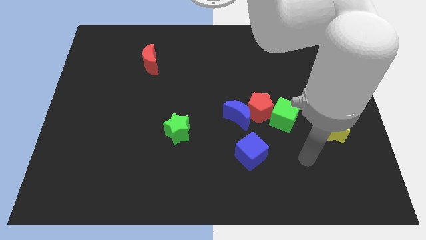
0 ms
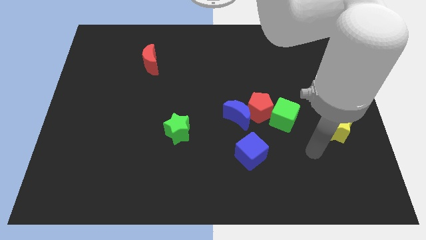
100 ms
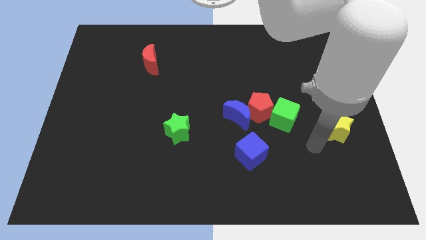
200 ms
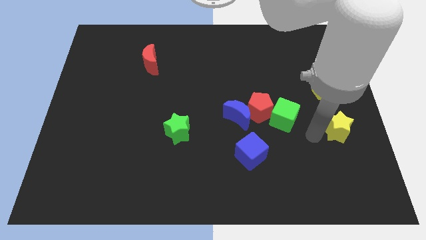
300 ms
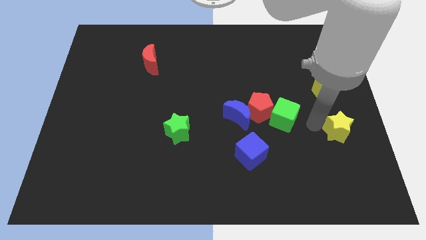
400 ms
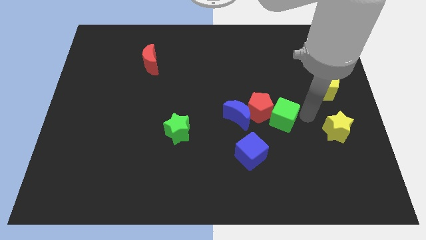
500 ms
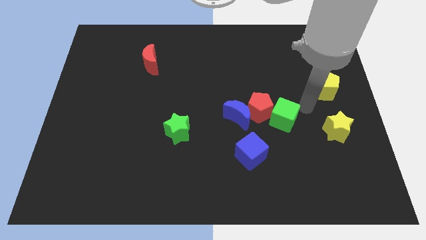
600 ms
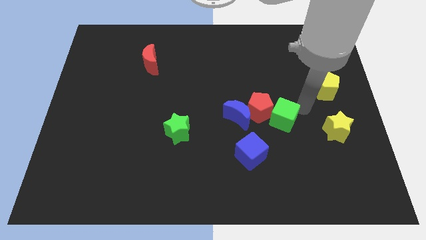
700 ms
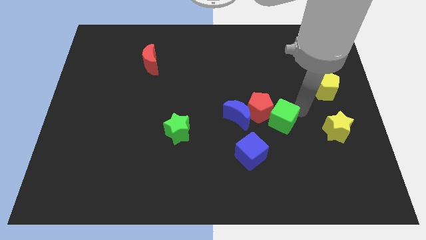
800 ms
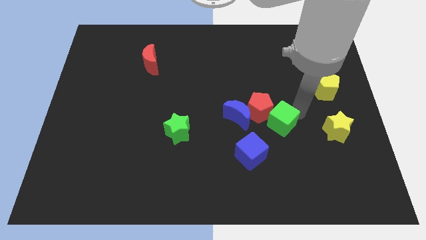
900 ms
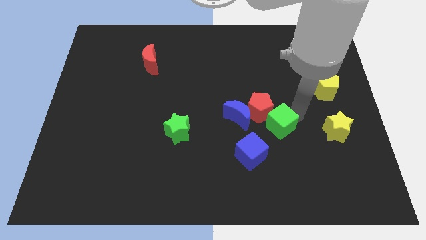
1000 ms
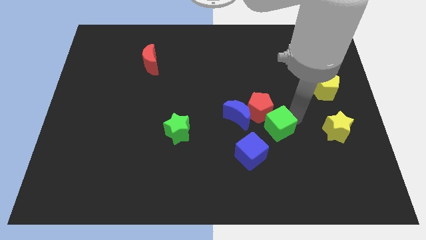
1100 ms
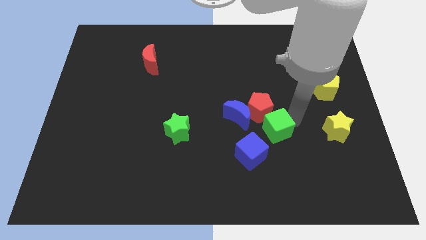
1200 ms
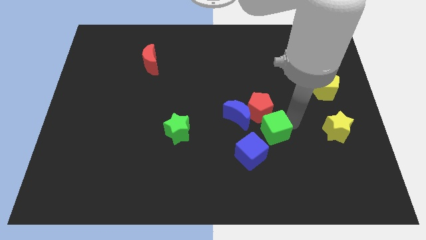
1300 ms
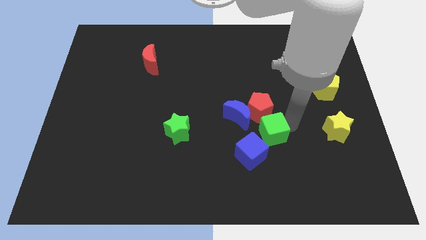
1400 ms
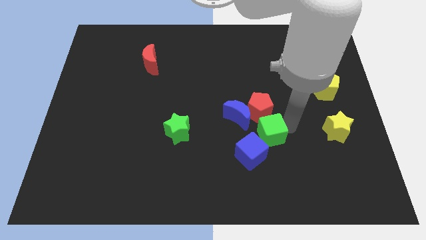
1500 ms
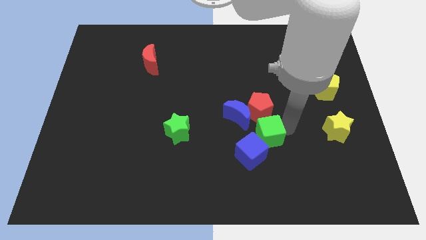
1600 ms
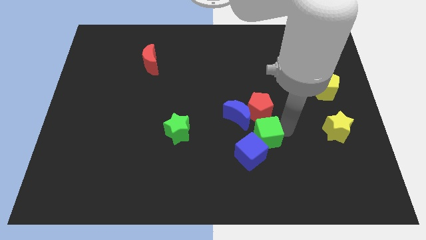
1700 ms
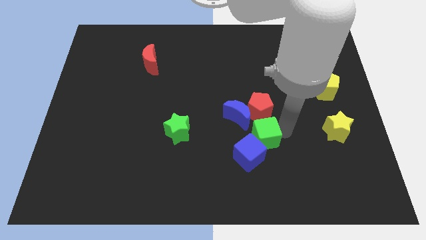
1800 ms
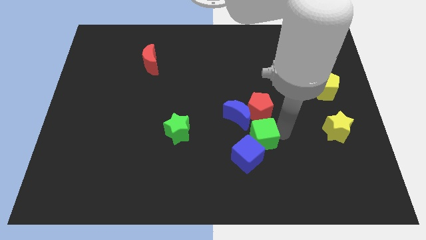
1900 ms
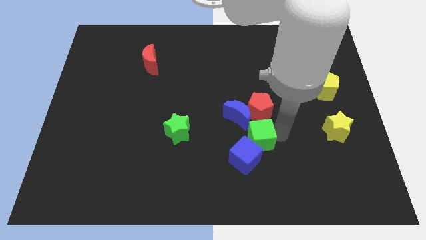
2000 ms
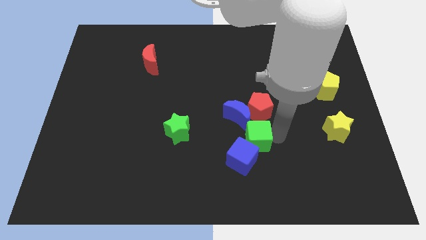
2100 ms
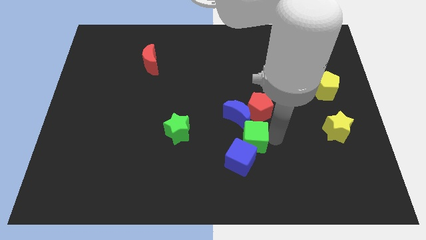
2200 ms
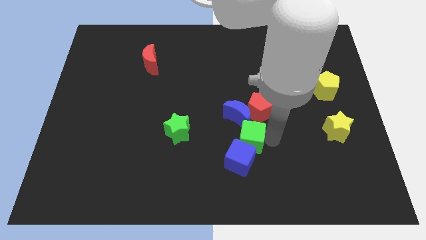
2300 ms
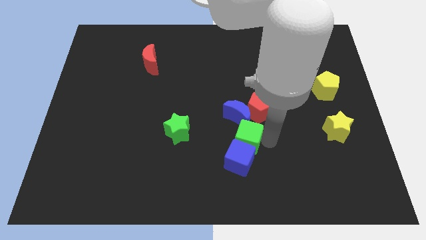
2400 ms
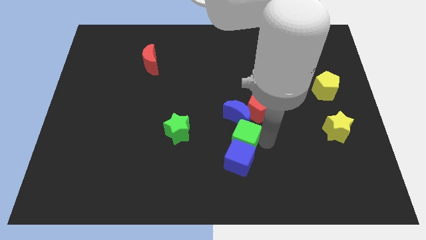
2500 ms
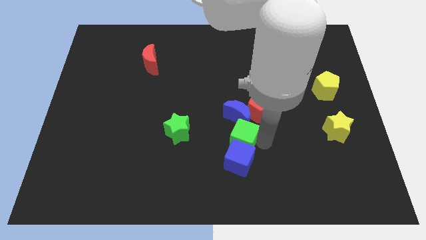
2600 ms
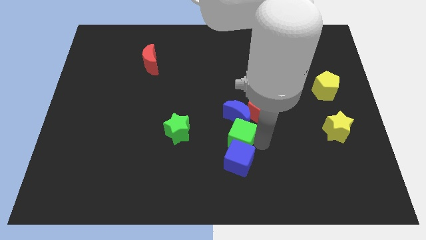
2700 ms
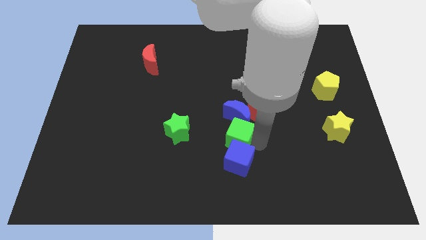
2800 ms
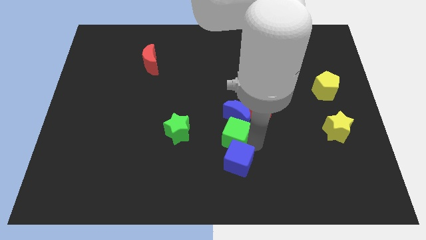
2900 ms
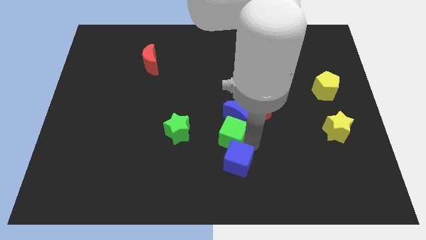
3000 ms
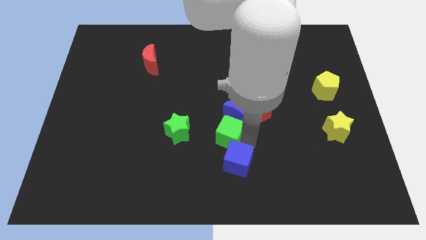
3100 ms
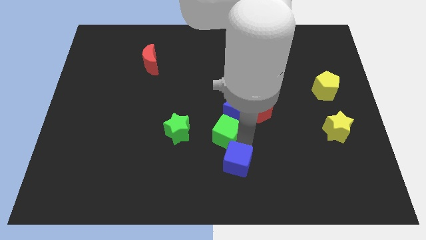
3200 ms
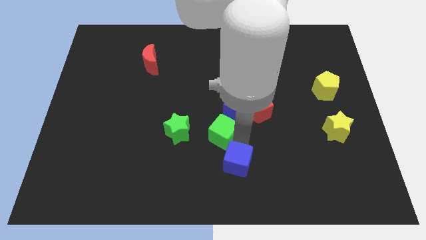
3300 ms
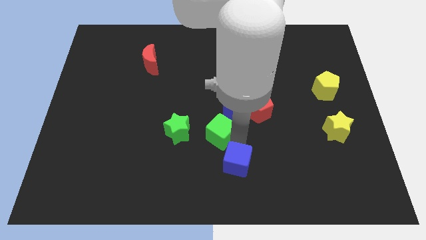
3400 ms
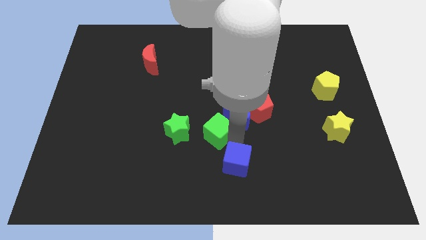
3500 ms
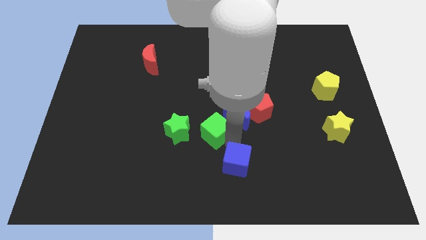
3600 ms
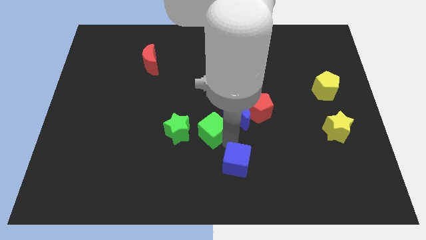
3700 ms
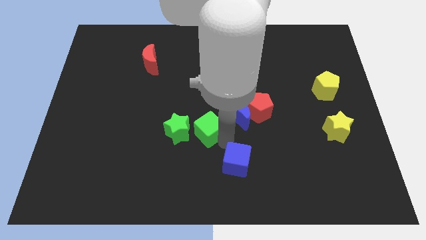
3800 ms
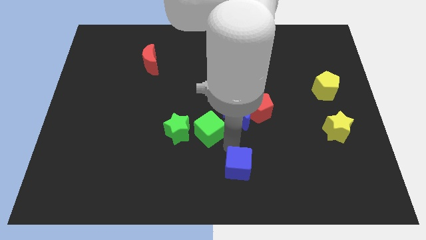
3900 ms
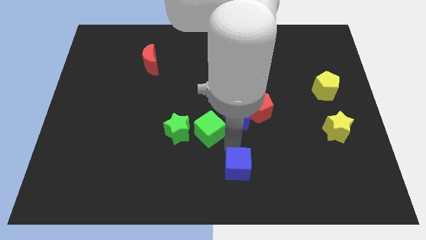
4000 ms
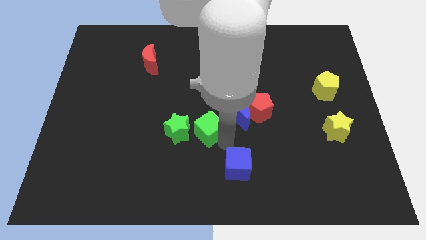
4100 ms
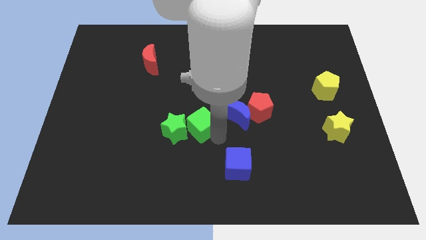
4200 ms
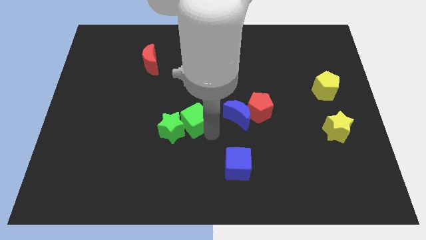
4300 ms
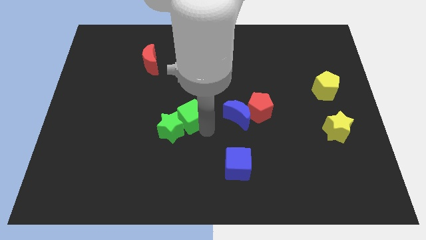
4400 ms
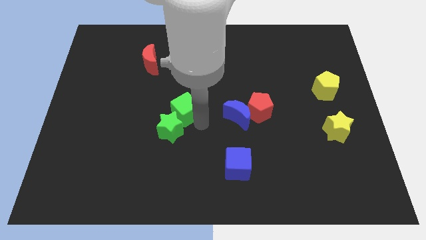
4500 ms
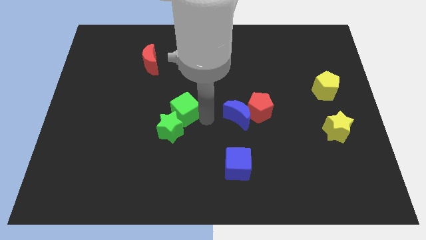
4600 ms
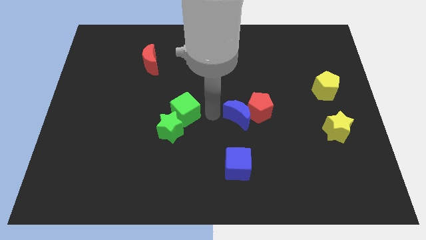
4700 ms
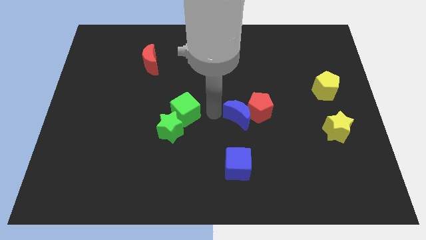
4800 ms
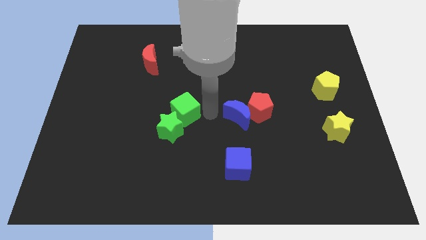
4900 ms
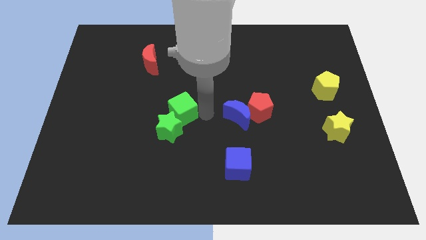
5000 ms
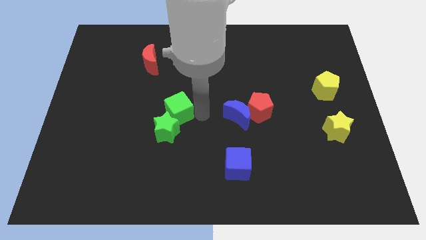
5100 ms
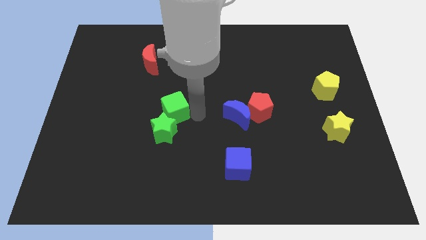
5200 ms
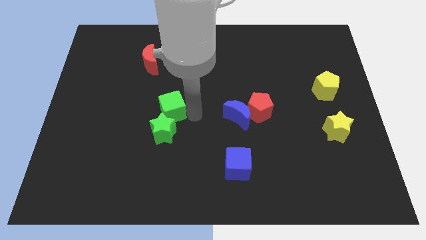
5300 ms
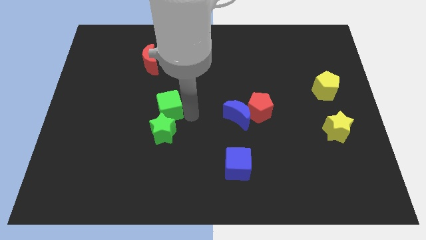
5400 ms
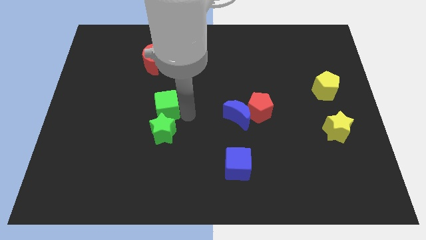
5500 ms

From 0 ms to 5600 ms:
put the green cube to the top left side of the green star
